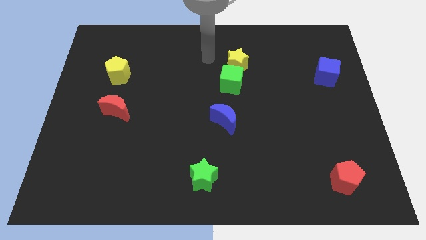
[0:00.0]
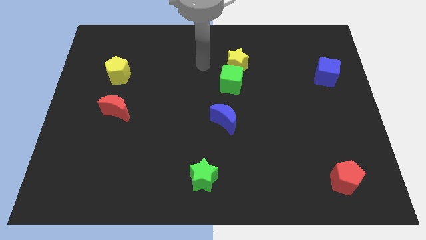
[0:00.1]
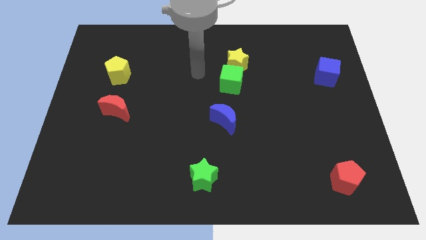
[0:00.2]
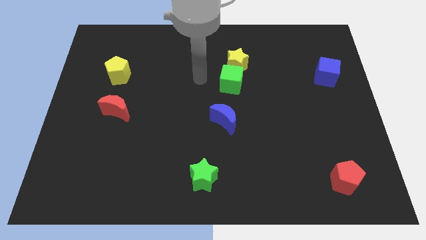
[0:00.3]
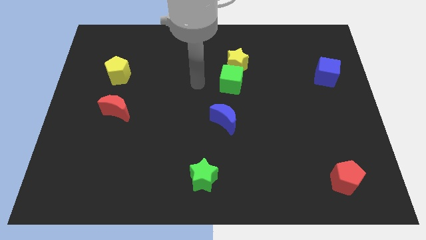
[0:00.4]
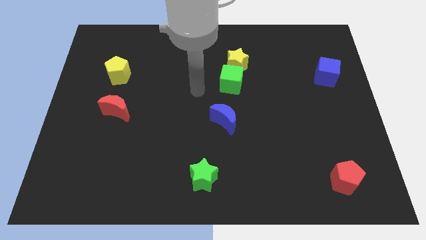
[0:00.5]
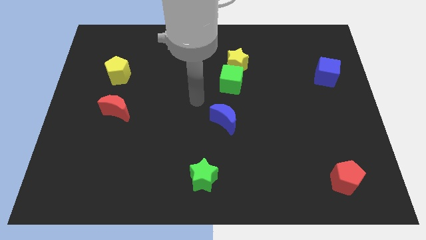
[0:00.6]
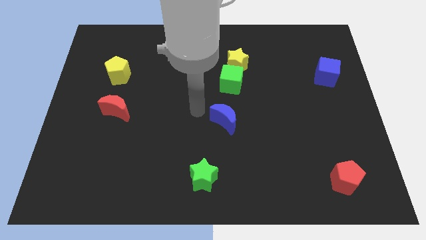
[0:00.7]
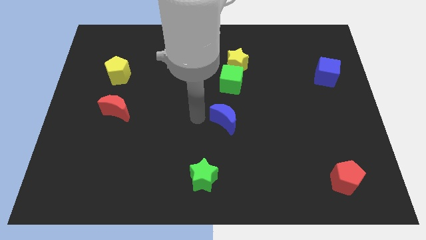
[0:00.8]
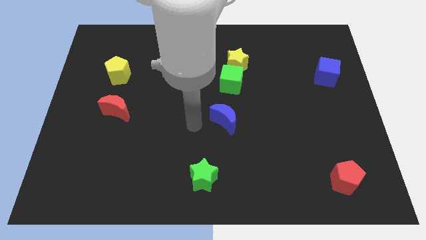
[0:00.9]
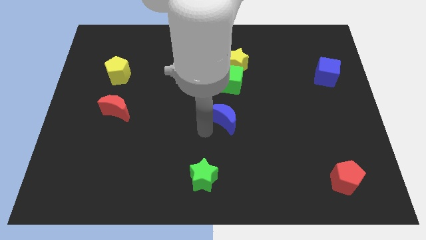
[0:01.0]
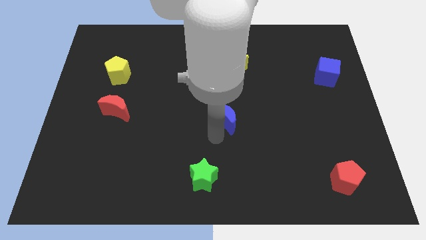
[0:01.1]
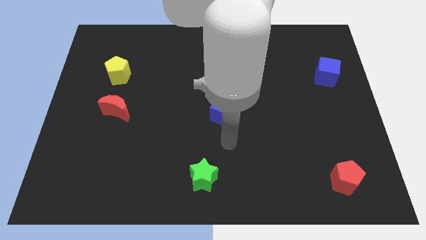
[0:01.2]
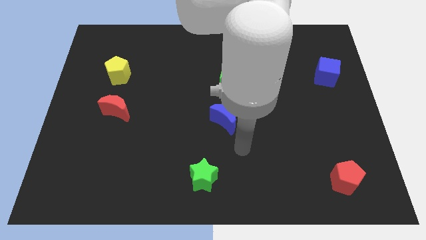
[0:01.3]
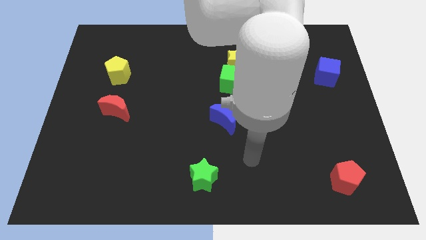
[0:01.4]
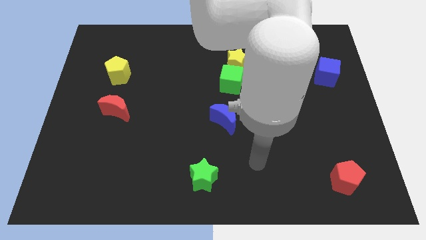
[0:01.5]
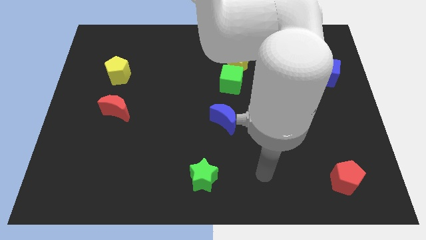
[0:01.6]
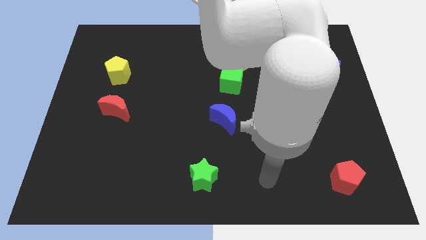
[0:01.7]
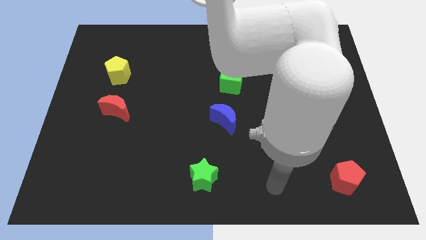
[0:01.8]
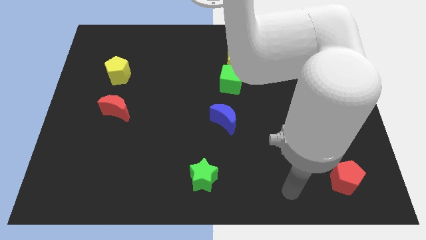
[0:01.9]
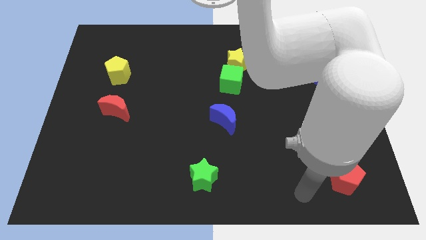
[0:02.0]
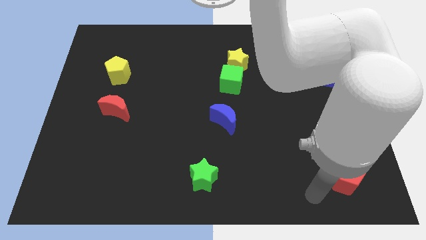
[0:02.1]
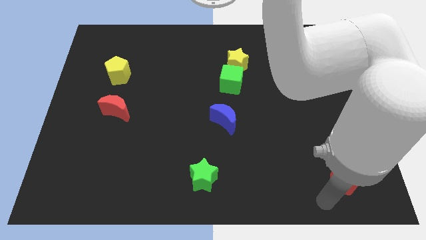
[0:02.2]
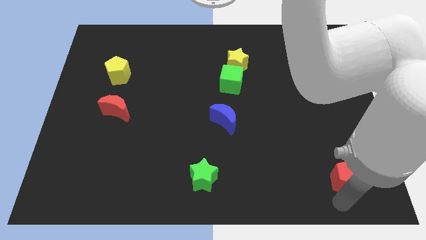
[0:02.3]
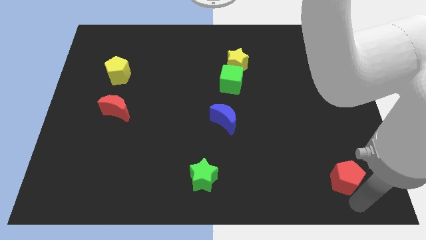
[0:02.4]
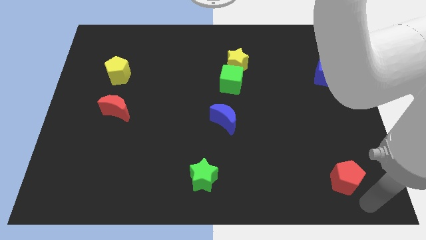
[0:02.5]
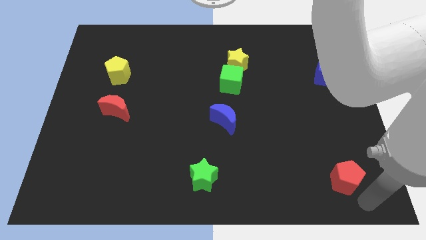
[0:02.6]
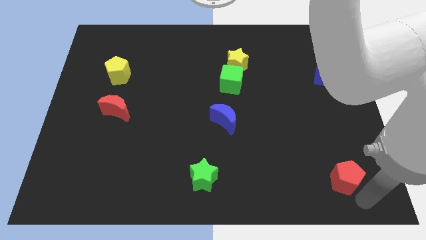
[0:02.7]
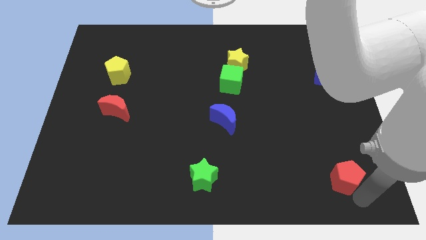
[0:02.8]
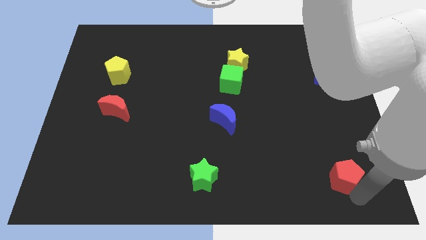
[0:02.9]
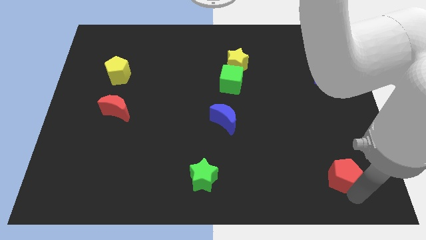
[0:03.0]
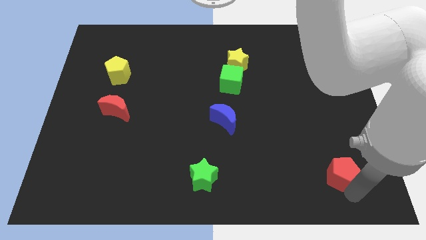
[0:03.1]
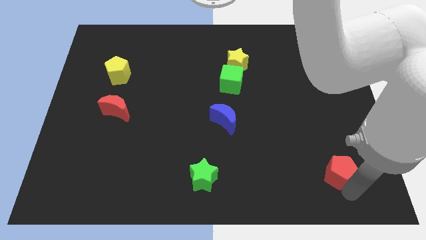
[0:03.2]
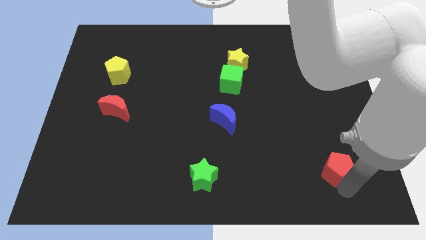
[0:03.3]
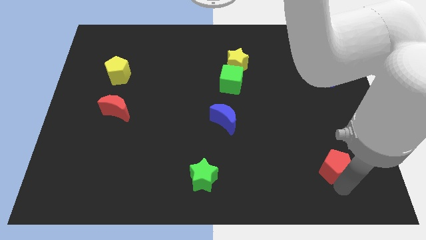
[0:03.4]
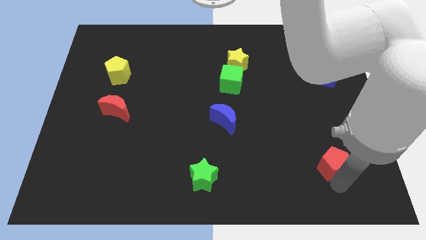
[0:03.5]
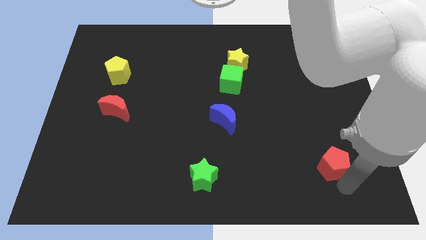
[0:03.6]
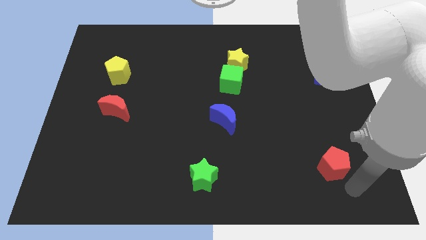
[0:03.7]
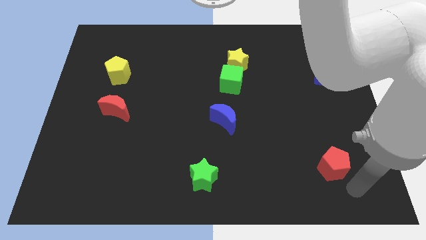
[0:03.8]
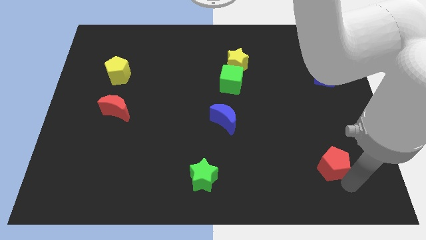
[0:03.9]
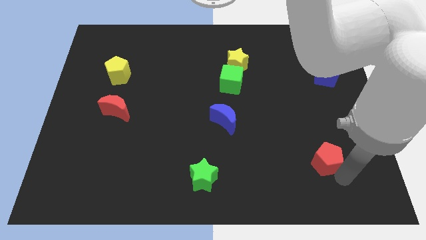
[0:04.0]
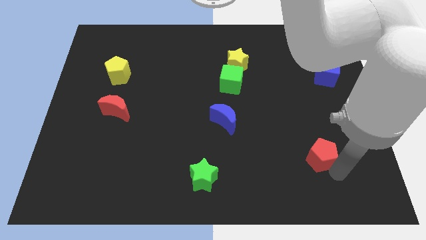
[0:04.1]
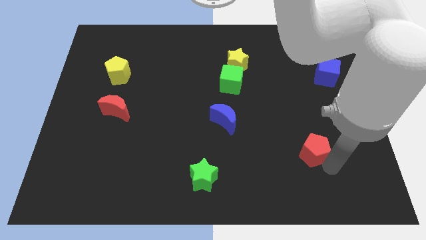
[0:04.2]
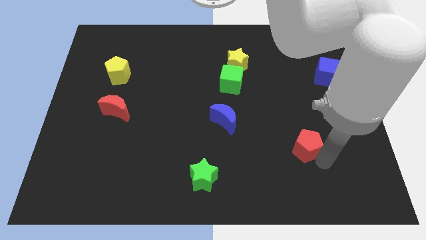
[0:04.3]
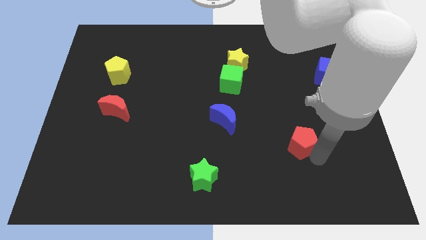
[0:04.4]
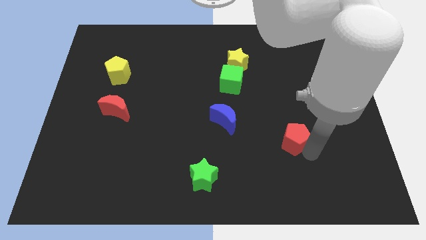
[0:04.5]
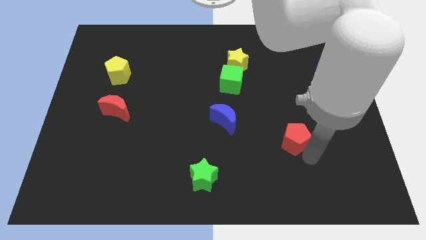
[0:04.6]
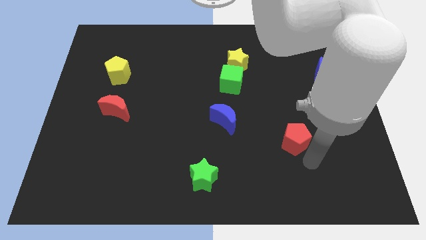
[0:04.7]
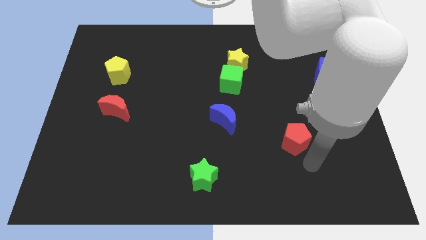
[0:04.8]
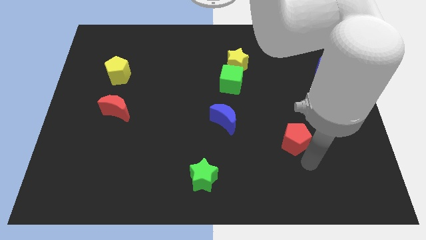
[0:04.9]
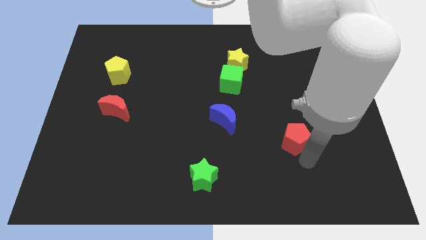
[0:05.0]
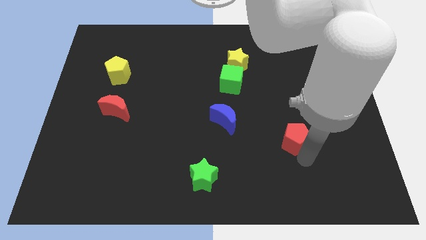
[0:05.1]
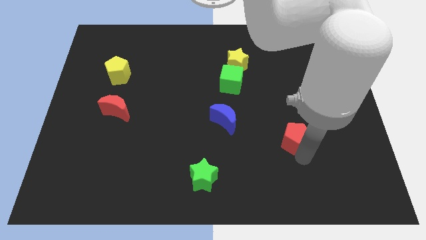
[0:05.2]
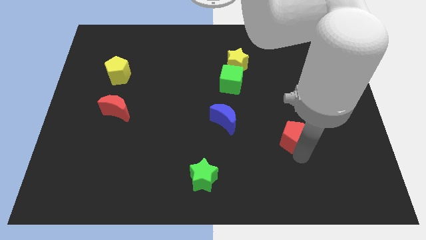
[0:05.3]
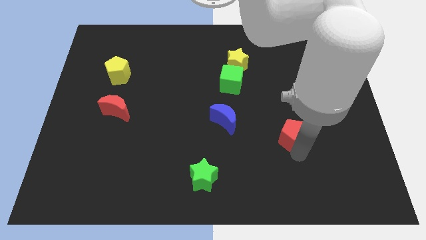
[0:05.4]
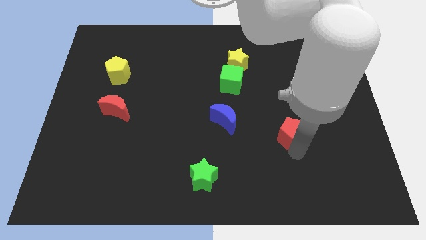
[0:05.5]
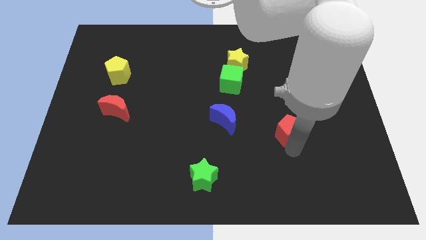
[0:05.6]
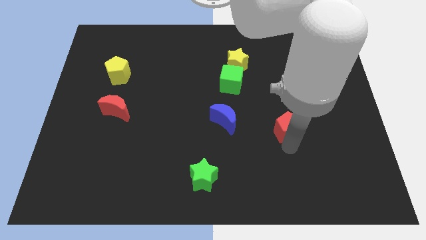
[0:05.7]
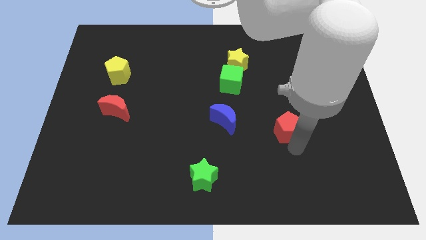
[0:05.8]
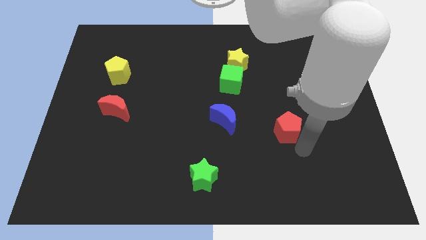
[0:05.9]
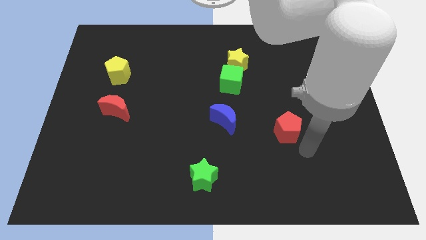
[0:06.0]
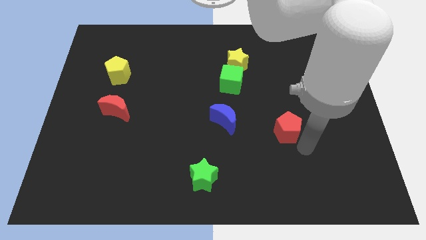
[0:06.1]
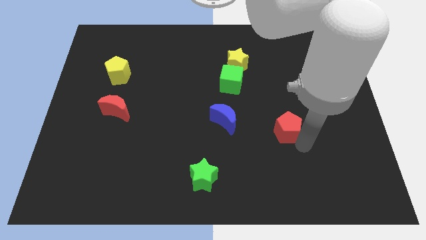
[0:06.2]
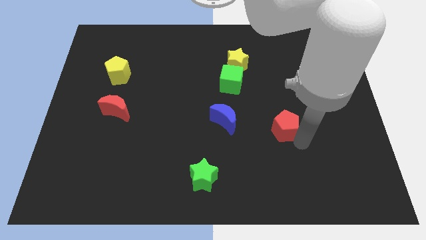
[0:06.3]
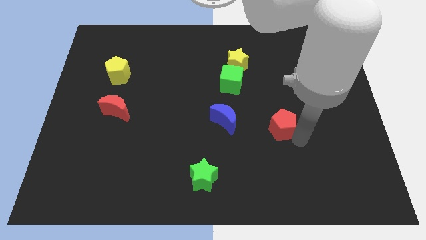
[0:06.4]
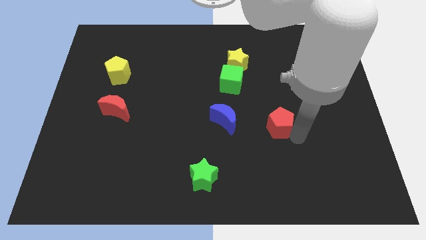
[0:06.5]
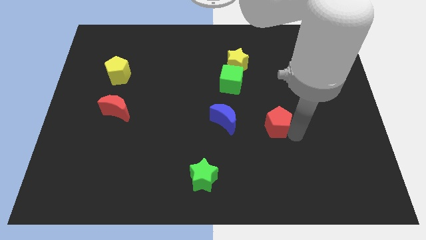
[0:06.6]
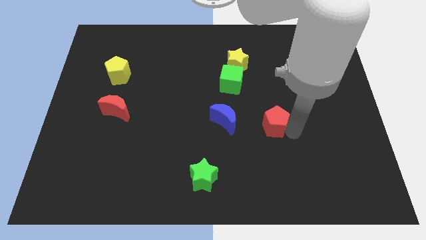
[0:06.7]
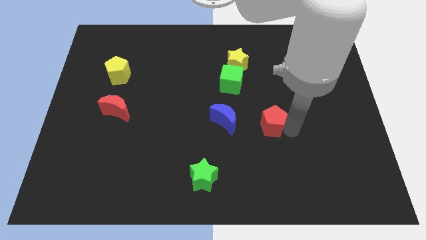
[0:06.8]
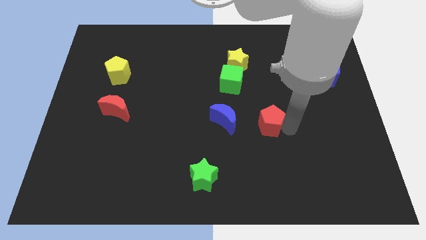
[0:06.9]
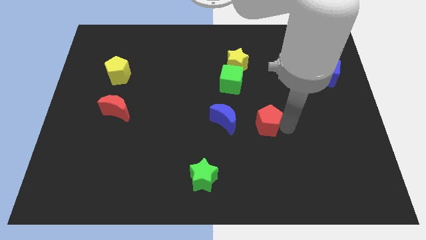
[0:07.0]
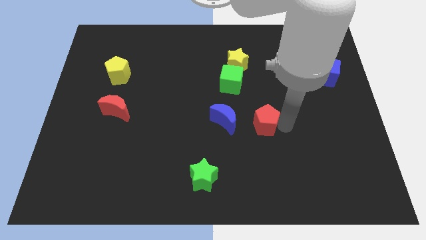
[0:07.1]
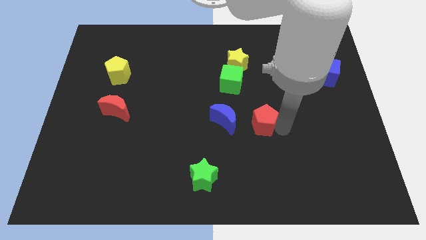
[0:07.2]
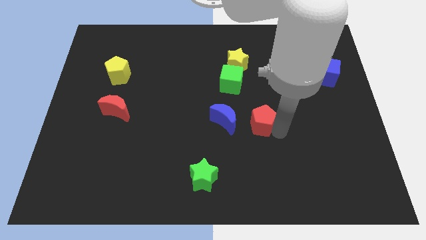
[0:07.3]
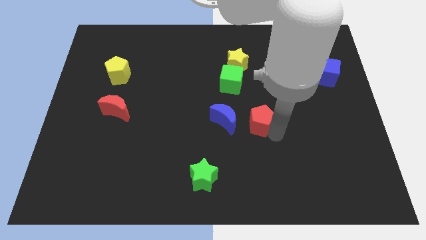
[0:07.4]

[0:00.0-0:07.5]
put the red pentagon to the center of the board

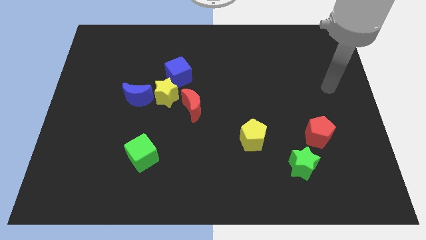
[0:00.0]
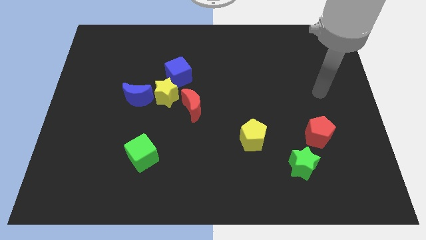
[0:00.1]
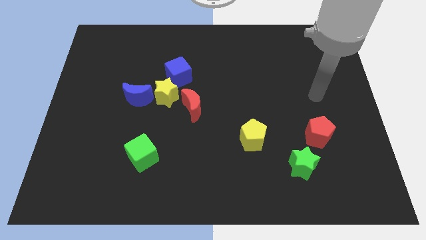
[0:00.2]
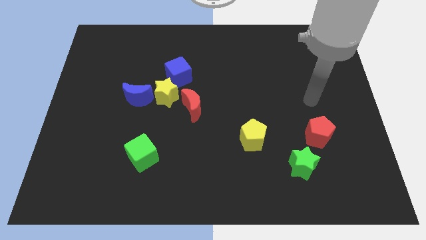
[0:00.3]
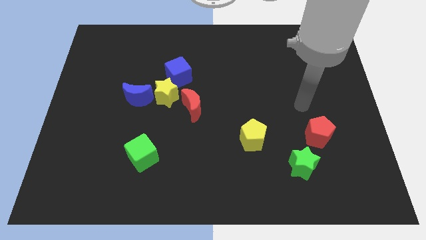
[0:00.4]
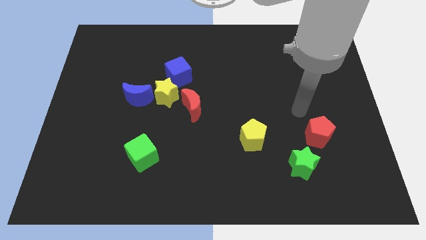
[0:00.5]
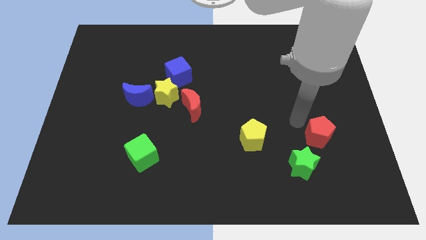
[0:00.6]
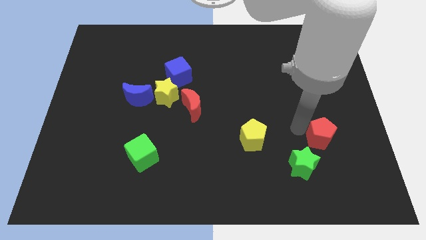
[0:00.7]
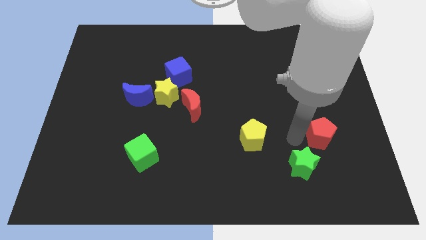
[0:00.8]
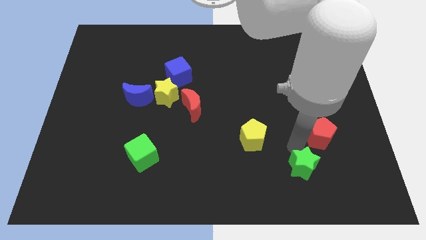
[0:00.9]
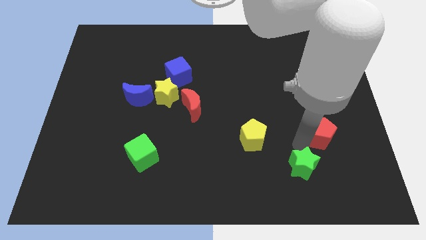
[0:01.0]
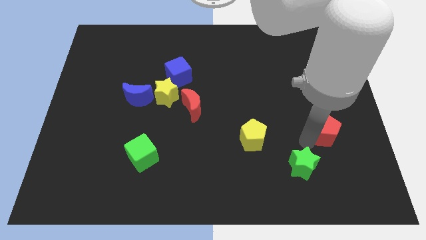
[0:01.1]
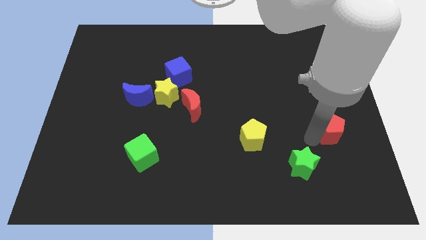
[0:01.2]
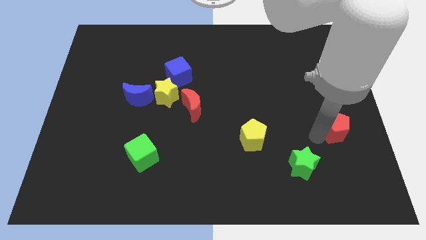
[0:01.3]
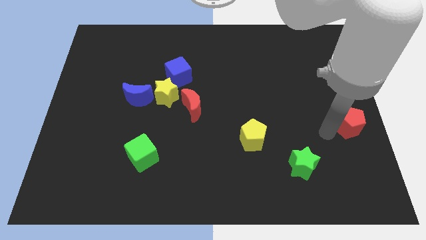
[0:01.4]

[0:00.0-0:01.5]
push the red pentagon to the center right
